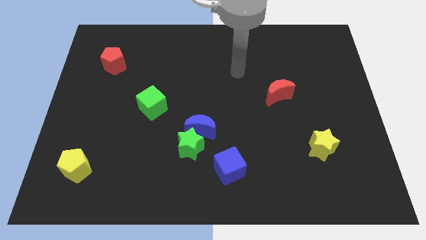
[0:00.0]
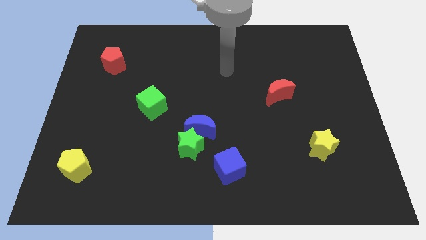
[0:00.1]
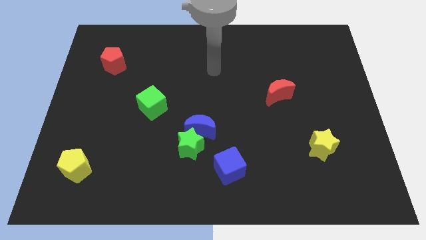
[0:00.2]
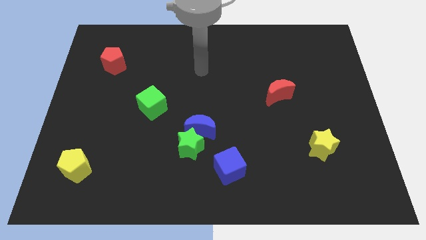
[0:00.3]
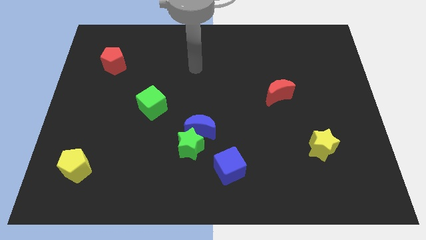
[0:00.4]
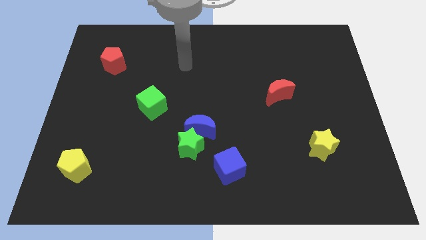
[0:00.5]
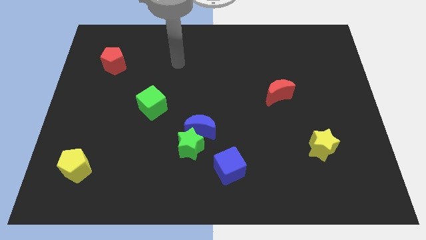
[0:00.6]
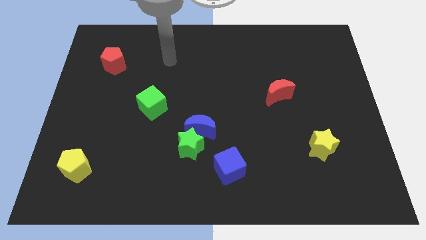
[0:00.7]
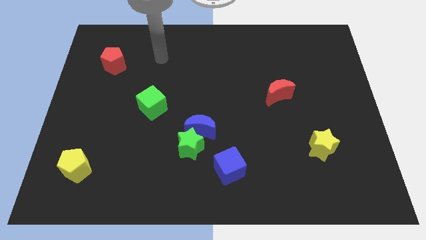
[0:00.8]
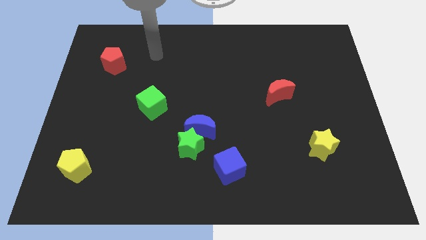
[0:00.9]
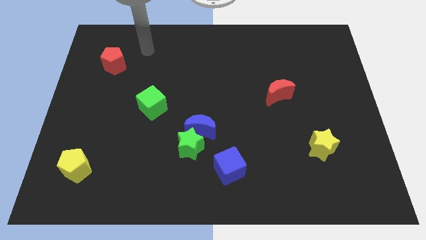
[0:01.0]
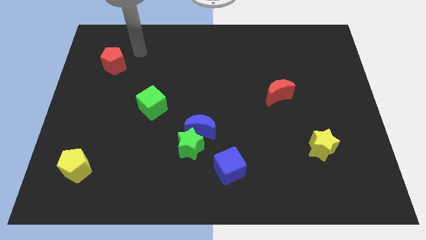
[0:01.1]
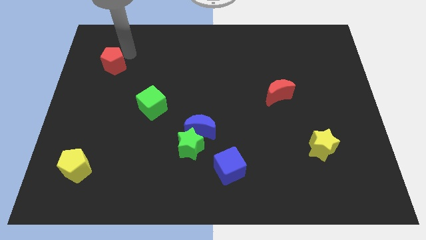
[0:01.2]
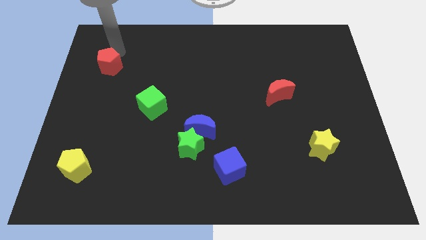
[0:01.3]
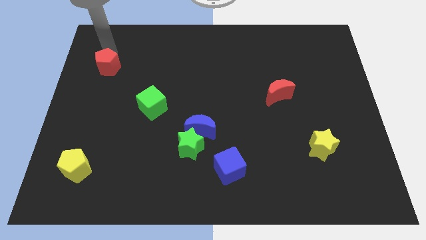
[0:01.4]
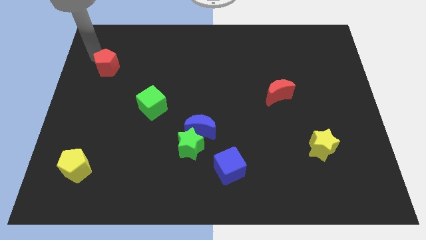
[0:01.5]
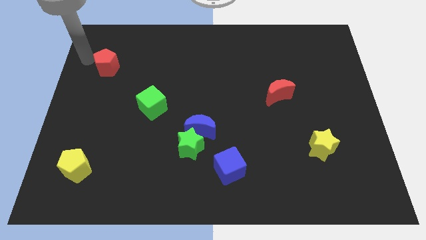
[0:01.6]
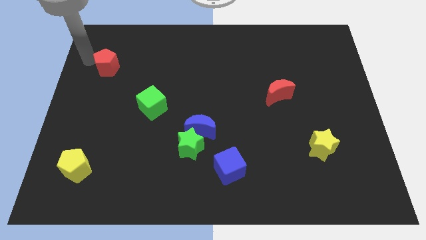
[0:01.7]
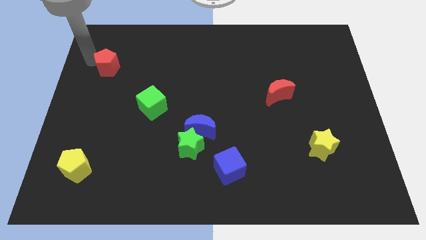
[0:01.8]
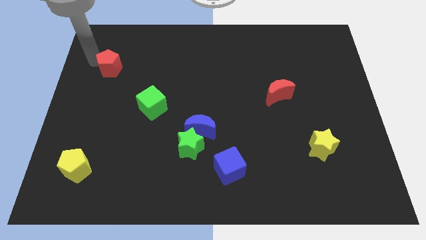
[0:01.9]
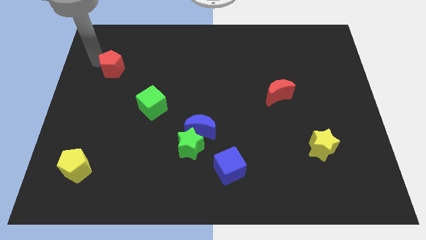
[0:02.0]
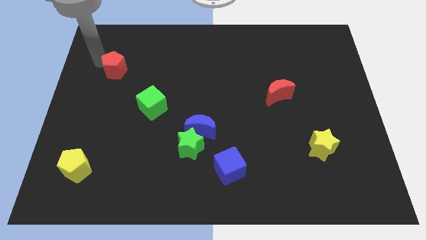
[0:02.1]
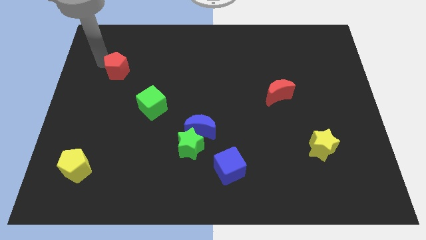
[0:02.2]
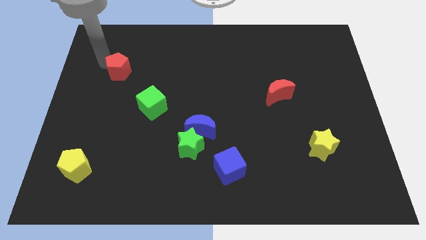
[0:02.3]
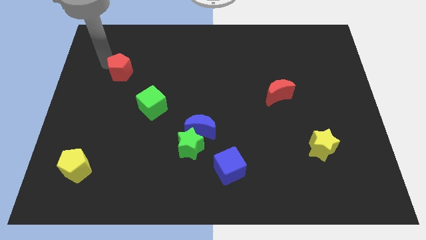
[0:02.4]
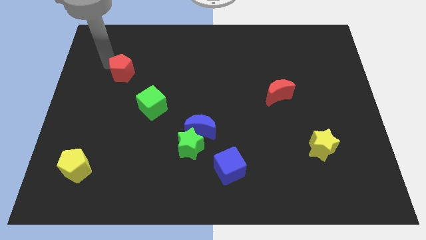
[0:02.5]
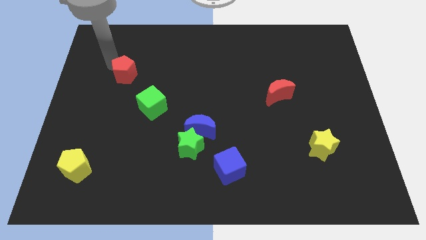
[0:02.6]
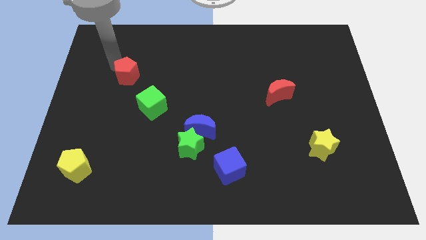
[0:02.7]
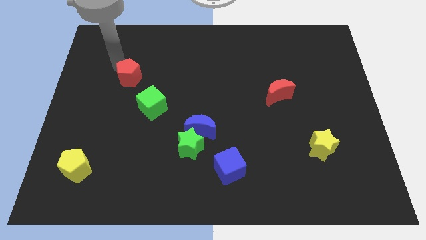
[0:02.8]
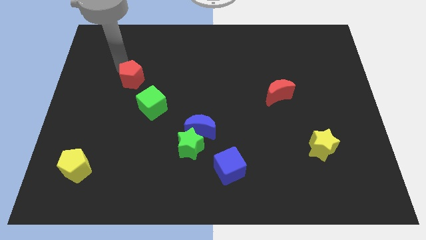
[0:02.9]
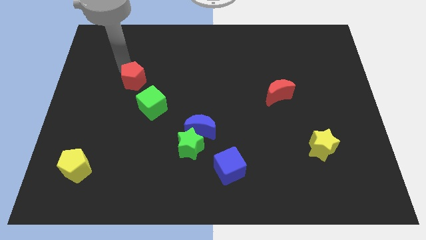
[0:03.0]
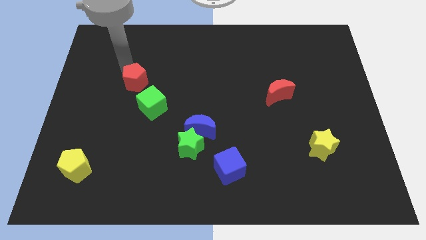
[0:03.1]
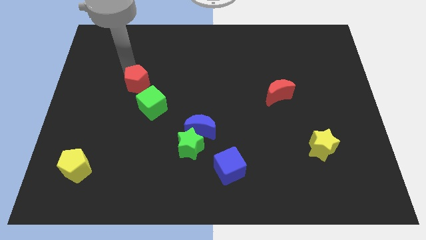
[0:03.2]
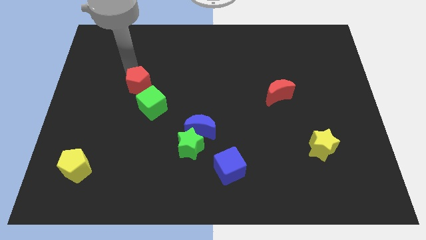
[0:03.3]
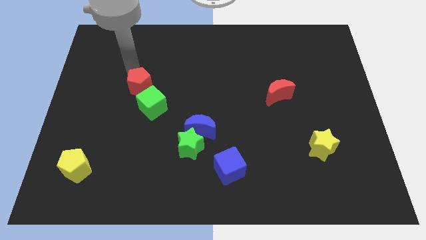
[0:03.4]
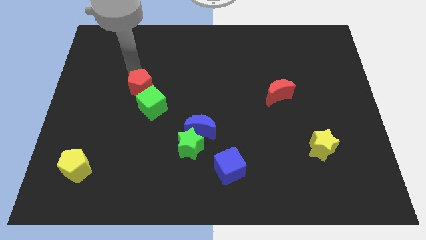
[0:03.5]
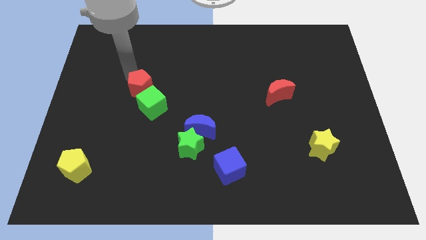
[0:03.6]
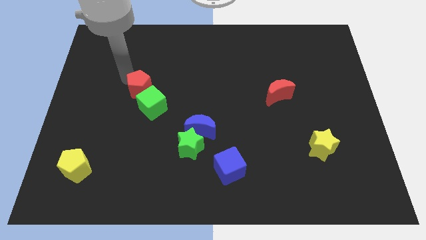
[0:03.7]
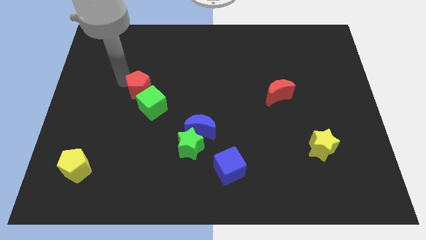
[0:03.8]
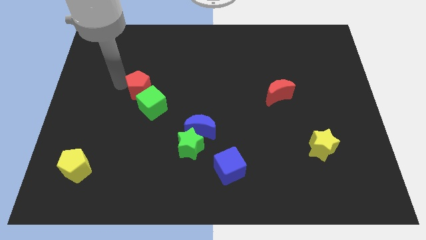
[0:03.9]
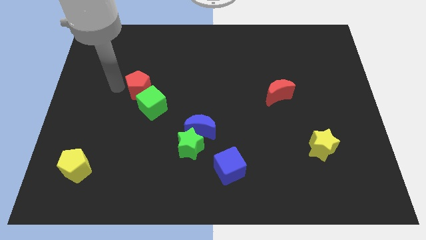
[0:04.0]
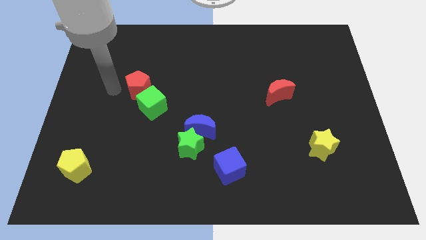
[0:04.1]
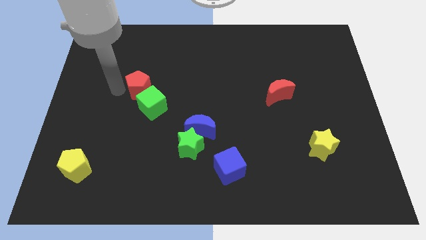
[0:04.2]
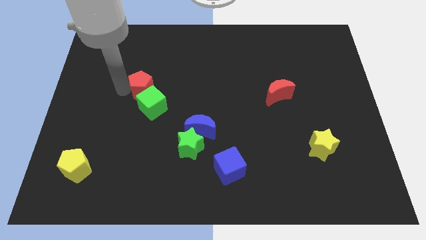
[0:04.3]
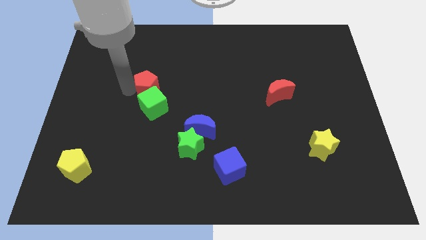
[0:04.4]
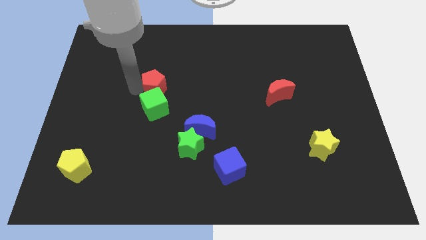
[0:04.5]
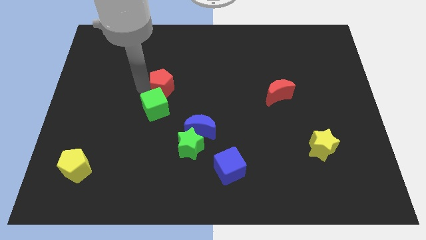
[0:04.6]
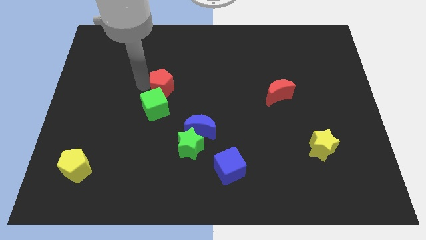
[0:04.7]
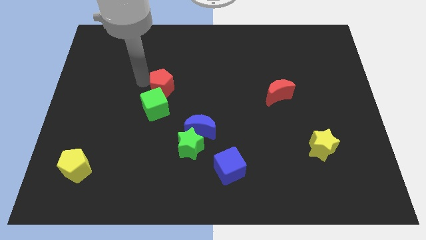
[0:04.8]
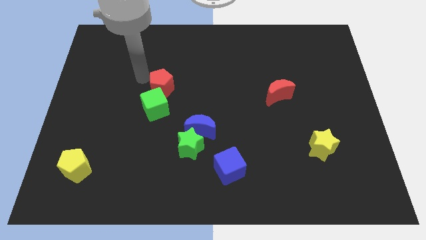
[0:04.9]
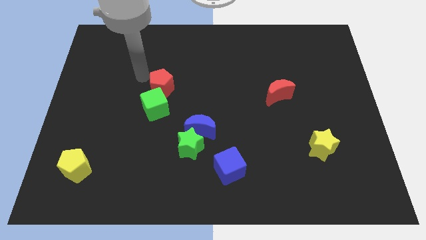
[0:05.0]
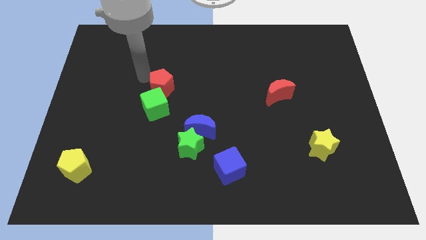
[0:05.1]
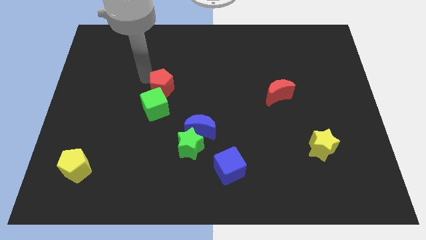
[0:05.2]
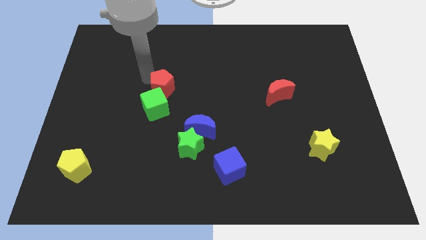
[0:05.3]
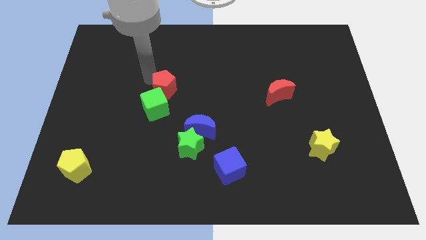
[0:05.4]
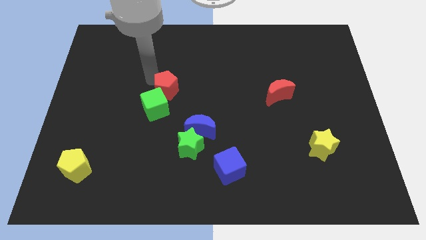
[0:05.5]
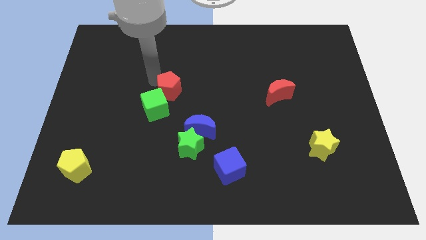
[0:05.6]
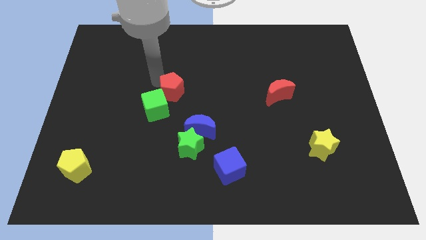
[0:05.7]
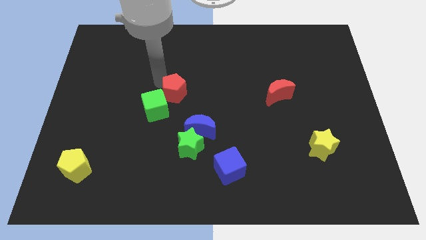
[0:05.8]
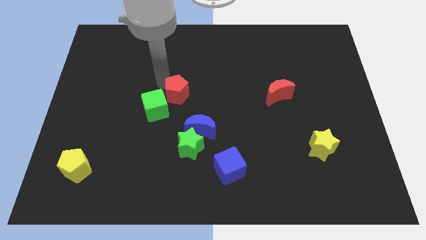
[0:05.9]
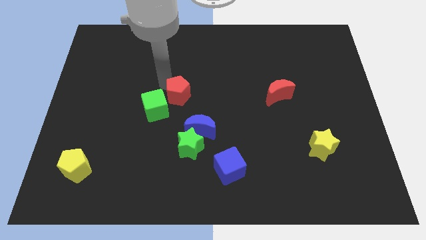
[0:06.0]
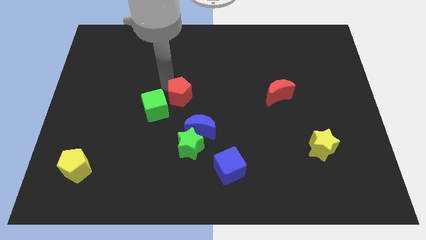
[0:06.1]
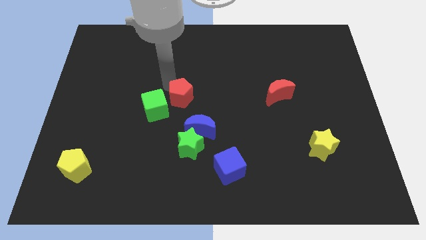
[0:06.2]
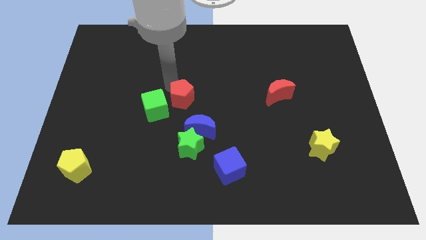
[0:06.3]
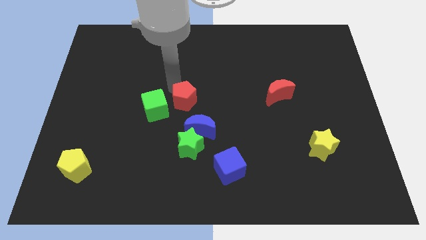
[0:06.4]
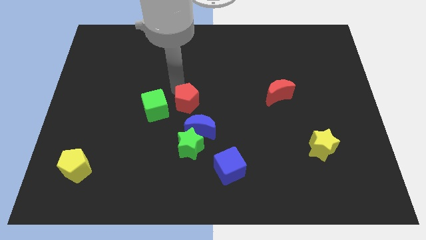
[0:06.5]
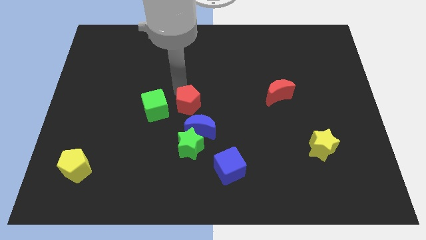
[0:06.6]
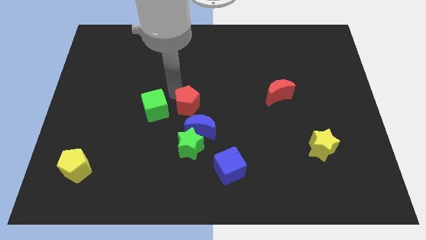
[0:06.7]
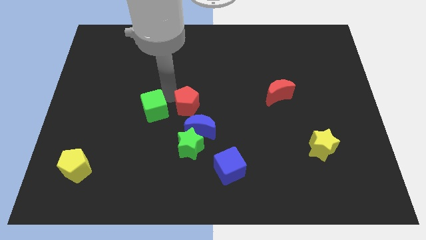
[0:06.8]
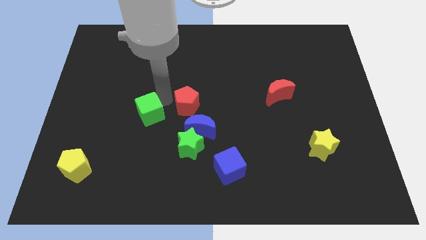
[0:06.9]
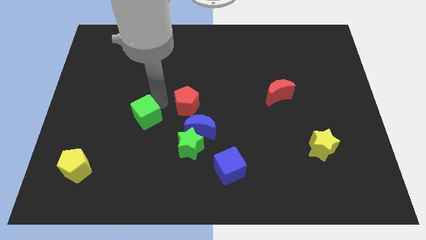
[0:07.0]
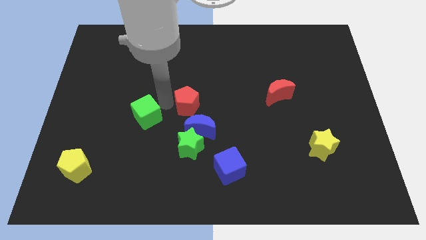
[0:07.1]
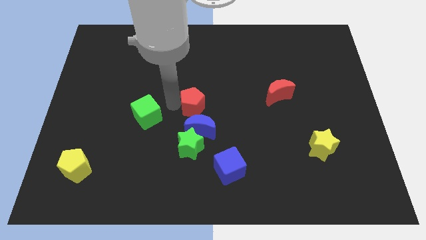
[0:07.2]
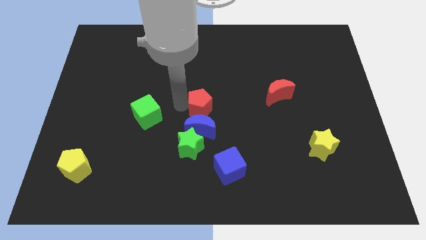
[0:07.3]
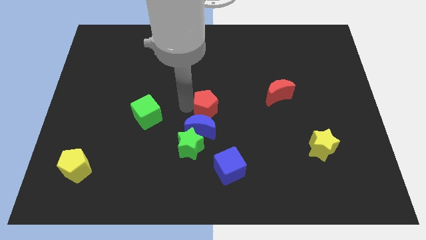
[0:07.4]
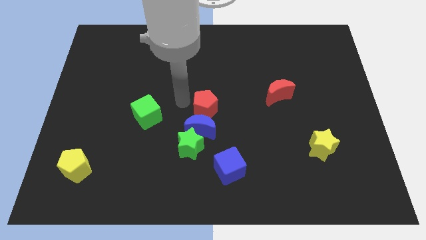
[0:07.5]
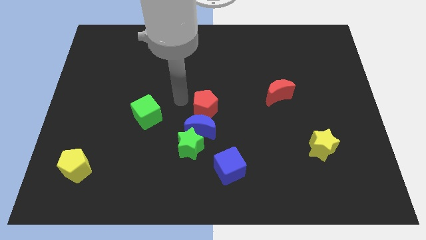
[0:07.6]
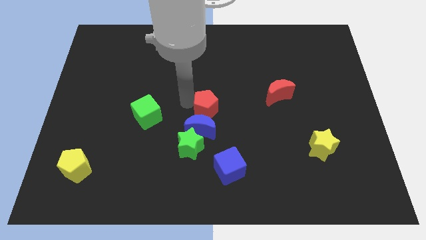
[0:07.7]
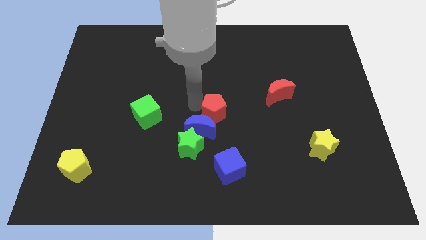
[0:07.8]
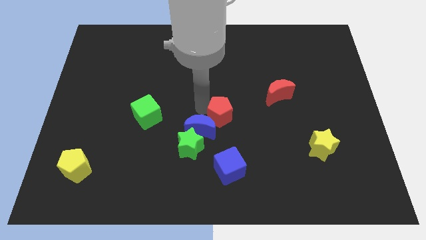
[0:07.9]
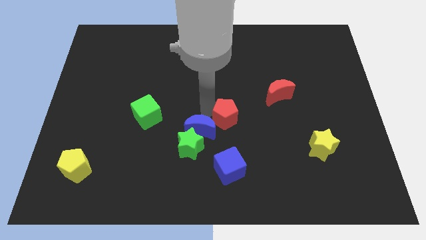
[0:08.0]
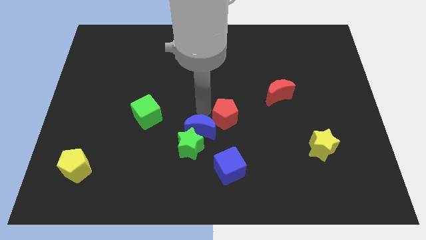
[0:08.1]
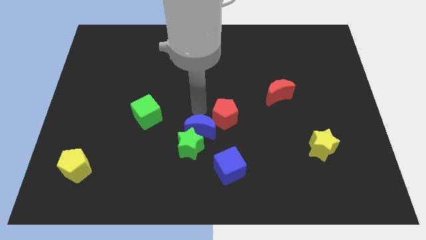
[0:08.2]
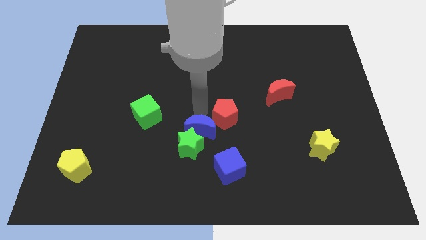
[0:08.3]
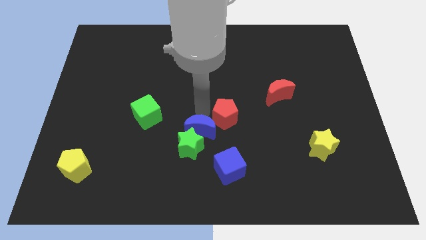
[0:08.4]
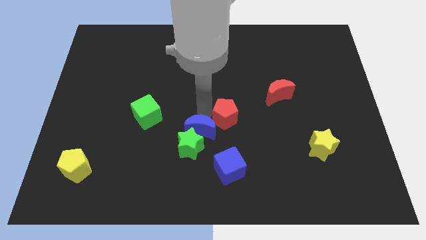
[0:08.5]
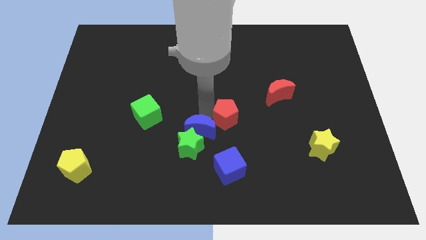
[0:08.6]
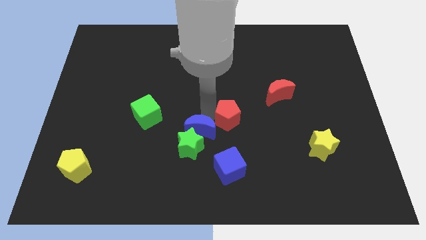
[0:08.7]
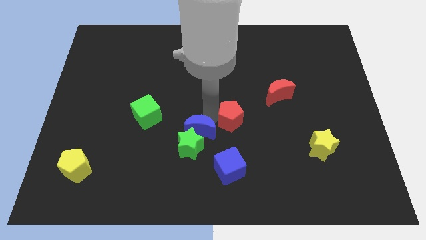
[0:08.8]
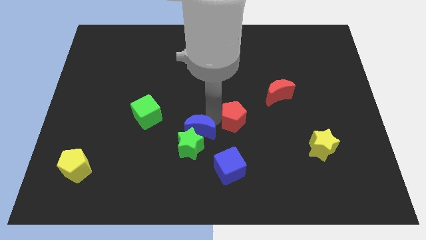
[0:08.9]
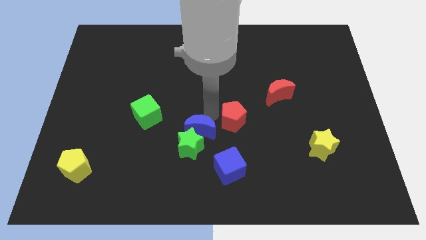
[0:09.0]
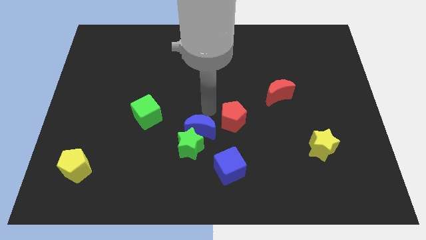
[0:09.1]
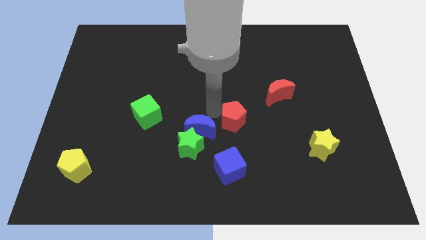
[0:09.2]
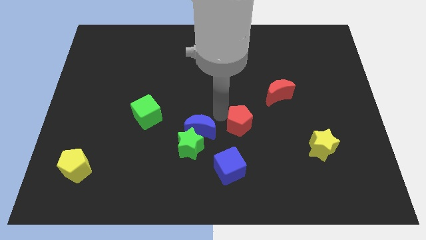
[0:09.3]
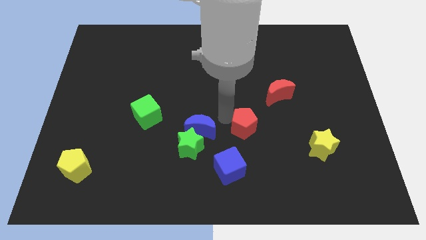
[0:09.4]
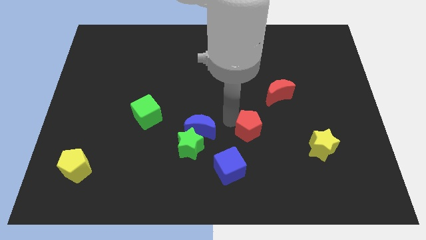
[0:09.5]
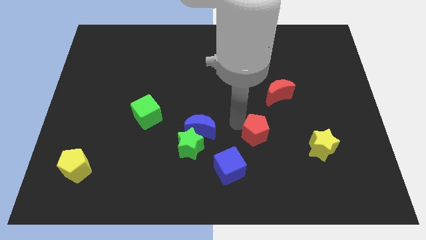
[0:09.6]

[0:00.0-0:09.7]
move the red pentagon to the left of the yellow star
